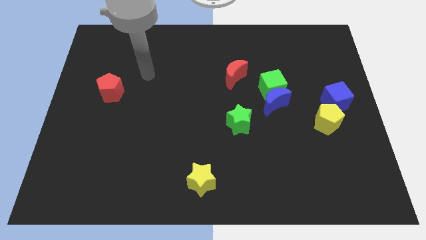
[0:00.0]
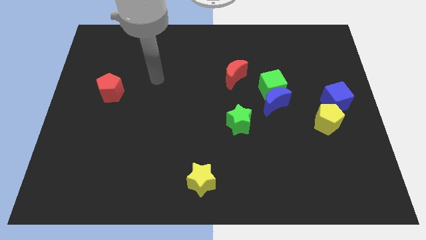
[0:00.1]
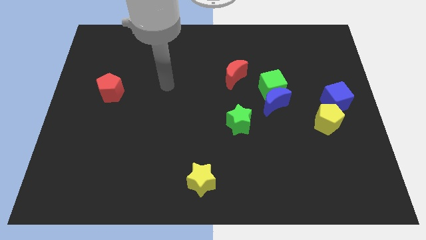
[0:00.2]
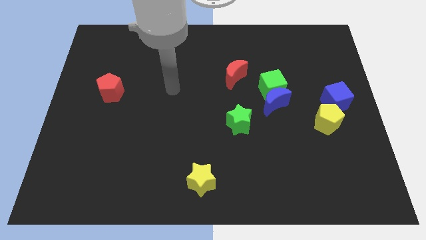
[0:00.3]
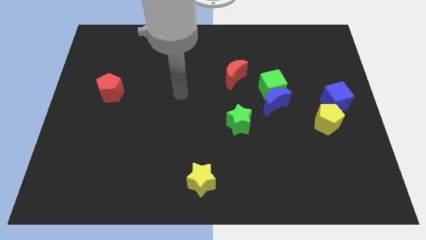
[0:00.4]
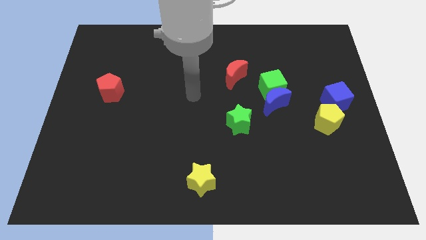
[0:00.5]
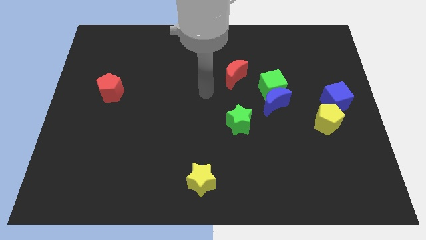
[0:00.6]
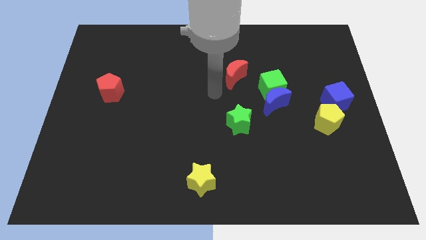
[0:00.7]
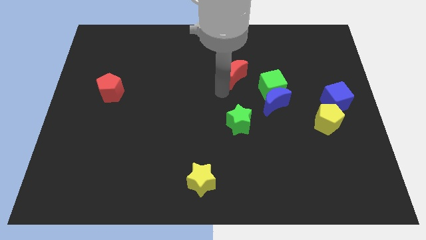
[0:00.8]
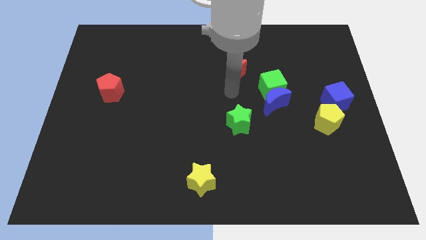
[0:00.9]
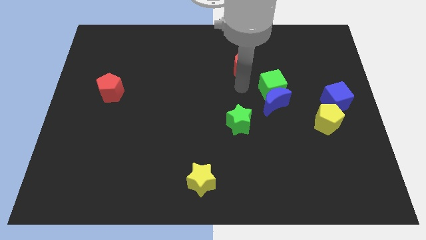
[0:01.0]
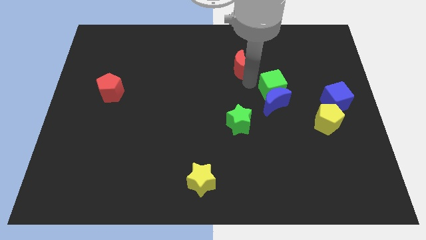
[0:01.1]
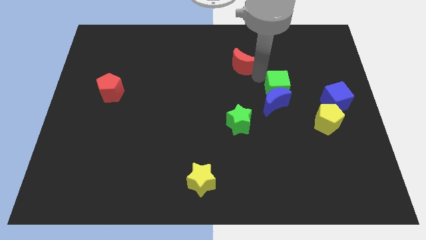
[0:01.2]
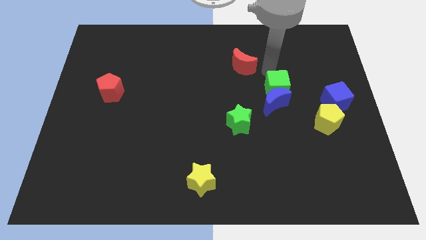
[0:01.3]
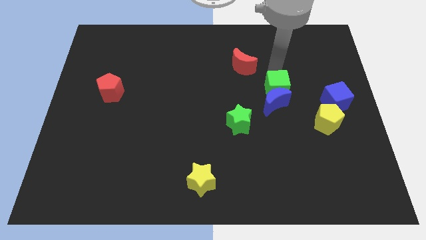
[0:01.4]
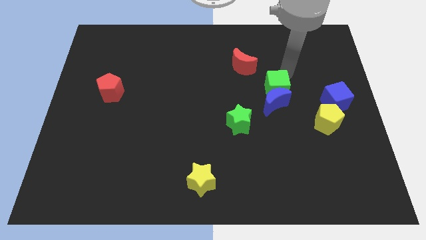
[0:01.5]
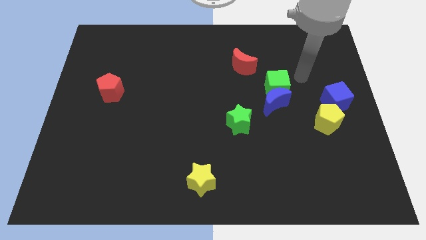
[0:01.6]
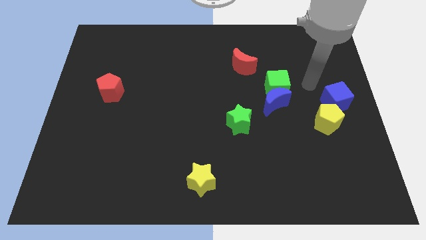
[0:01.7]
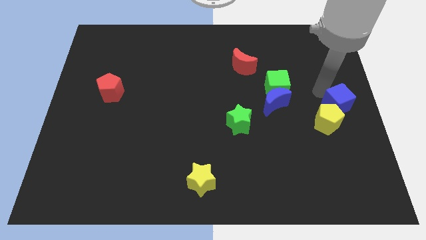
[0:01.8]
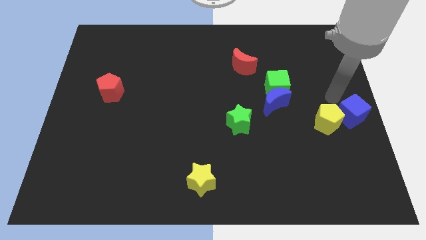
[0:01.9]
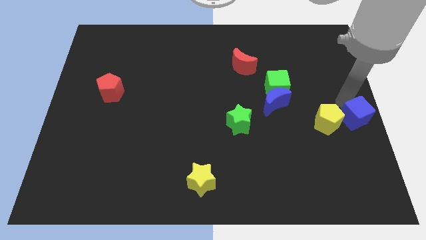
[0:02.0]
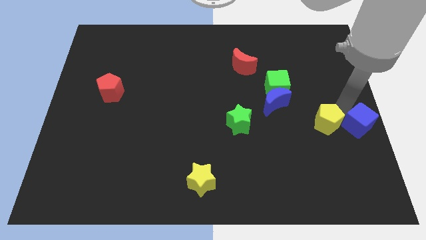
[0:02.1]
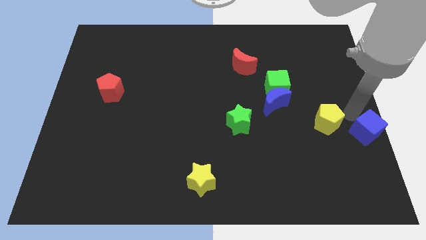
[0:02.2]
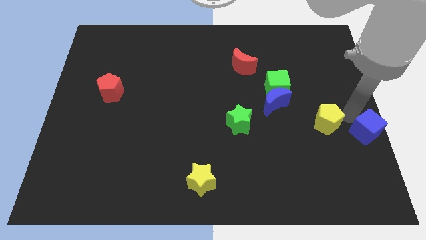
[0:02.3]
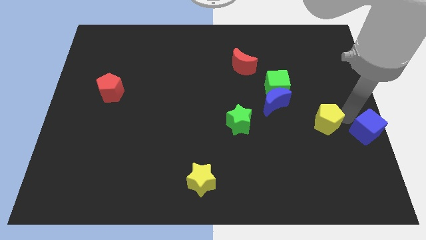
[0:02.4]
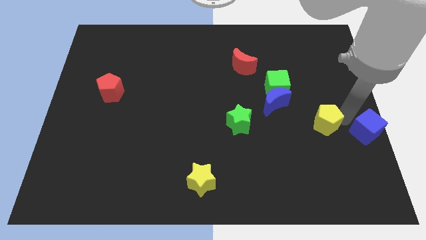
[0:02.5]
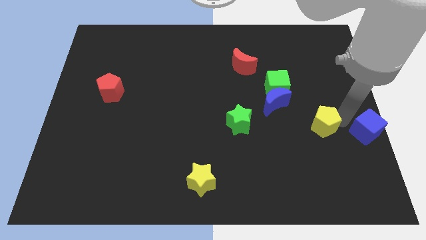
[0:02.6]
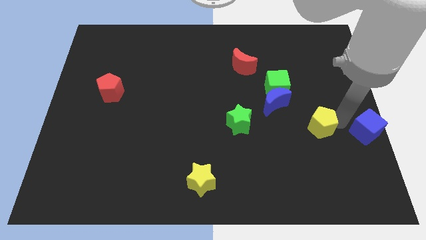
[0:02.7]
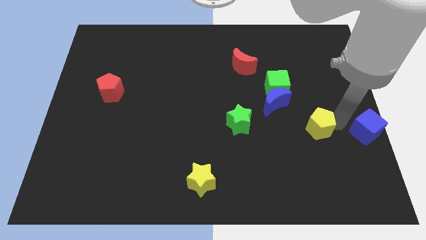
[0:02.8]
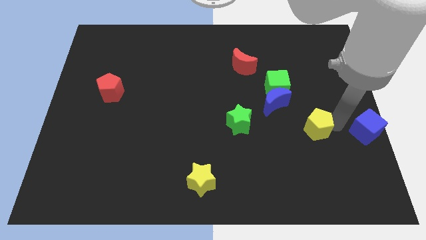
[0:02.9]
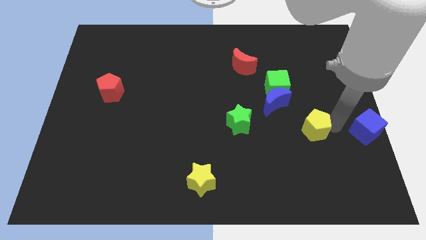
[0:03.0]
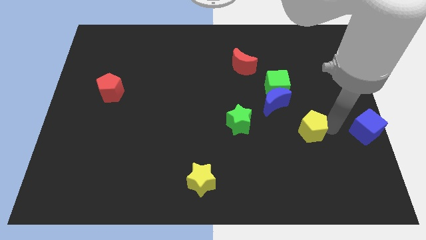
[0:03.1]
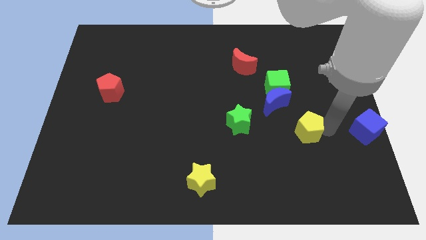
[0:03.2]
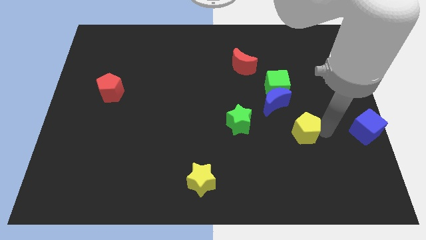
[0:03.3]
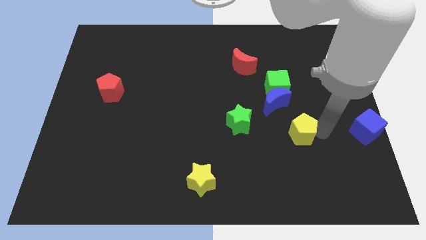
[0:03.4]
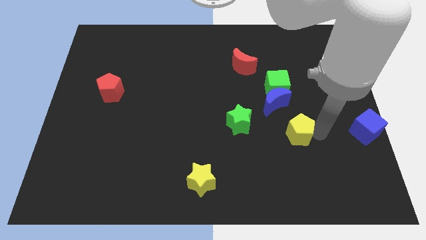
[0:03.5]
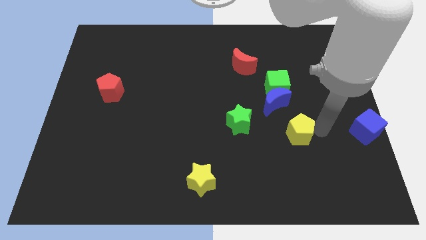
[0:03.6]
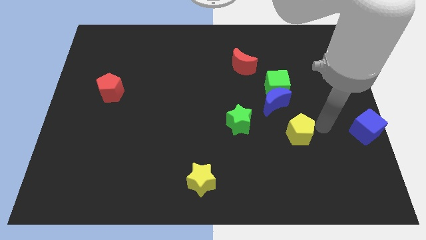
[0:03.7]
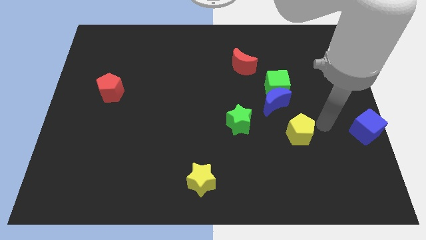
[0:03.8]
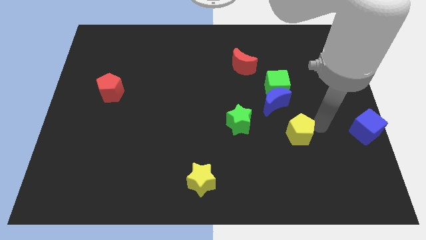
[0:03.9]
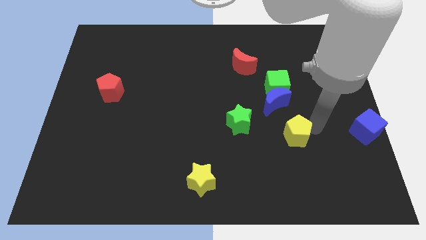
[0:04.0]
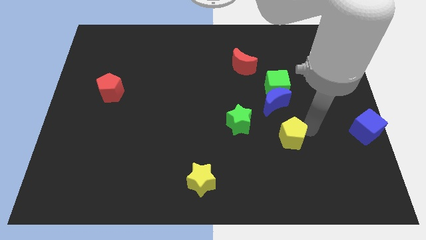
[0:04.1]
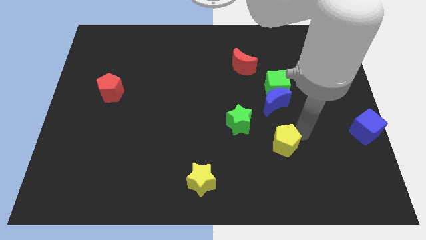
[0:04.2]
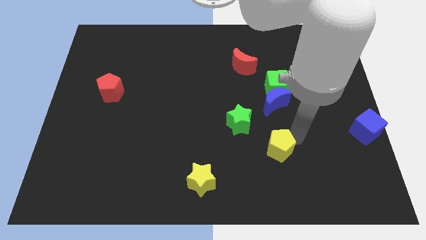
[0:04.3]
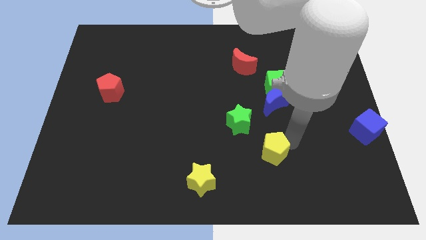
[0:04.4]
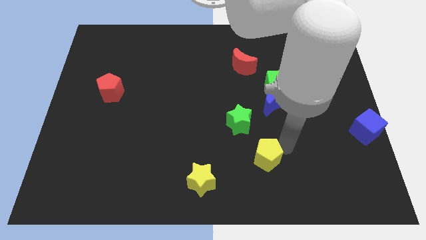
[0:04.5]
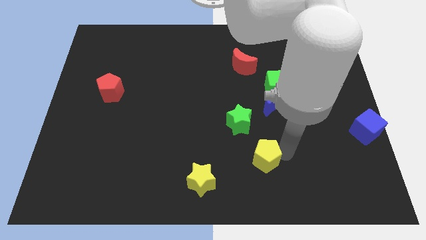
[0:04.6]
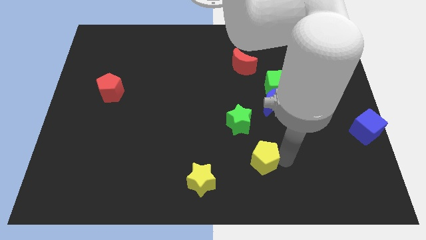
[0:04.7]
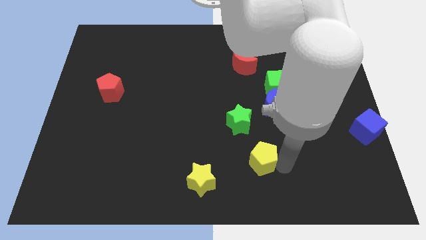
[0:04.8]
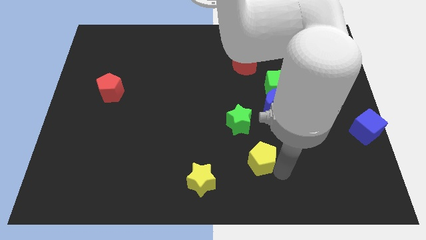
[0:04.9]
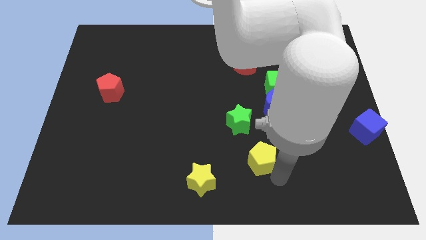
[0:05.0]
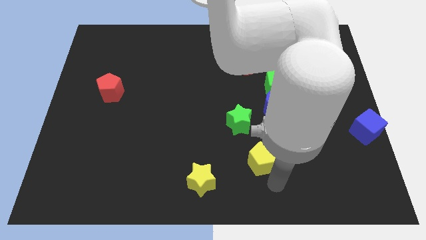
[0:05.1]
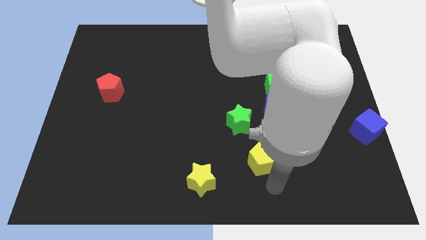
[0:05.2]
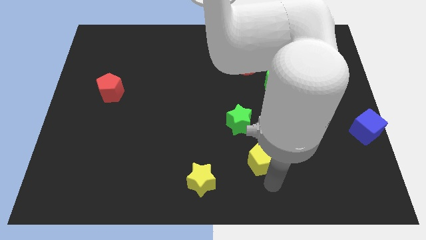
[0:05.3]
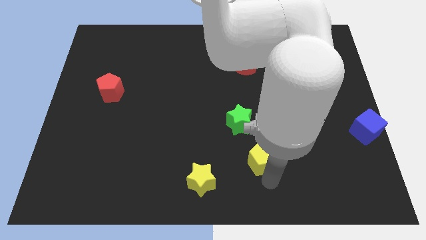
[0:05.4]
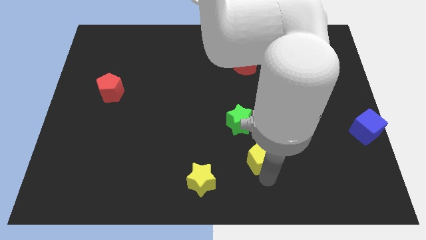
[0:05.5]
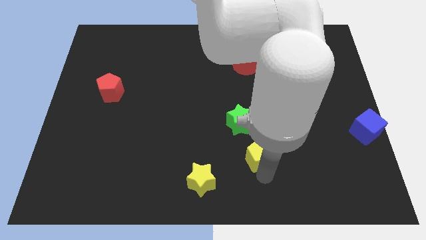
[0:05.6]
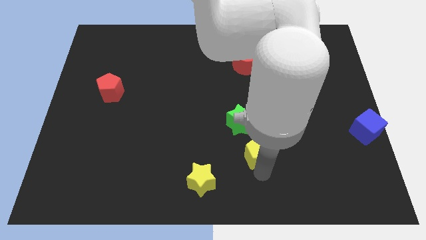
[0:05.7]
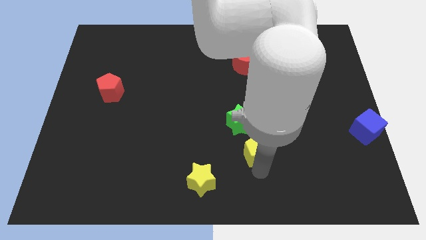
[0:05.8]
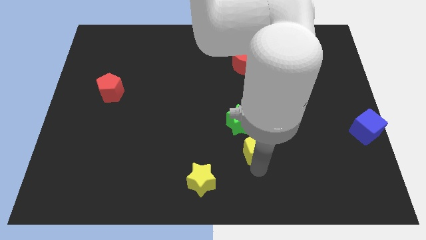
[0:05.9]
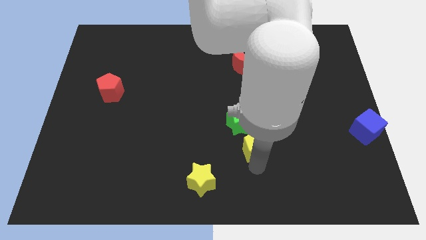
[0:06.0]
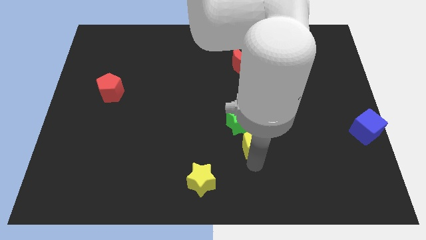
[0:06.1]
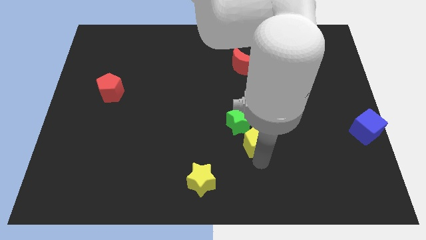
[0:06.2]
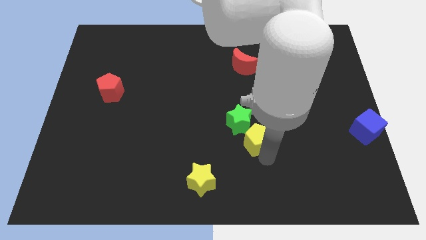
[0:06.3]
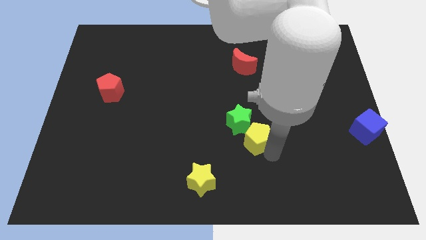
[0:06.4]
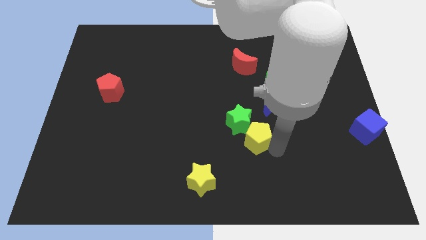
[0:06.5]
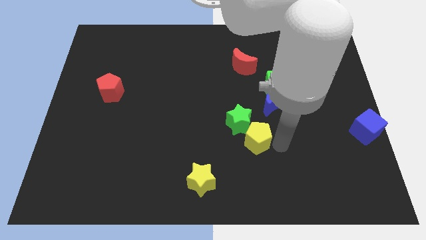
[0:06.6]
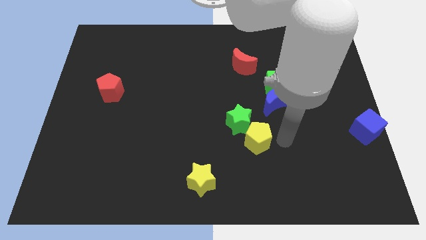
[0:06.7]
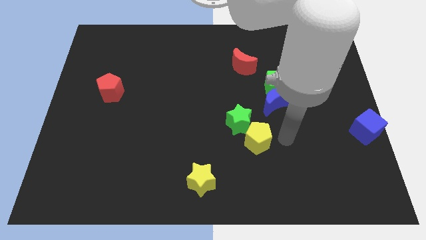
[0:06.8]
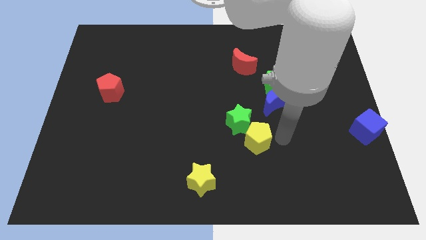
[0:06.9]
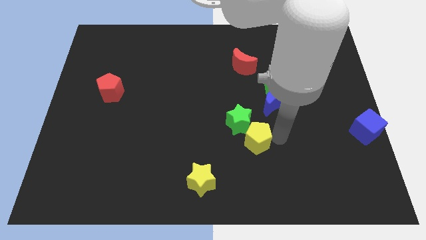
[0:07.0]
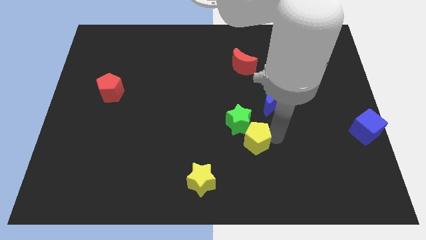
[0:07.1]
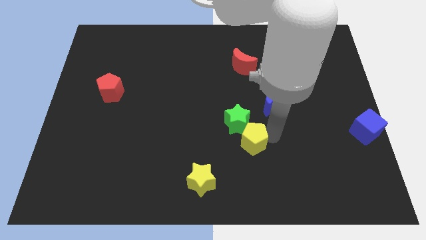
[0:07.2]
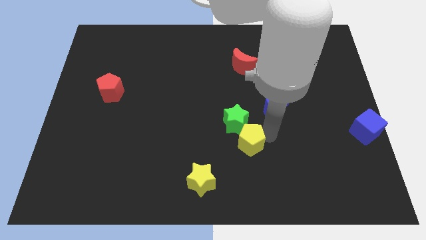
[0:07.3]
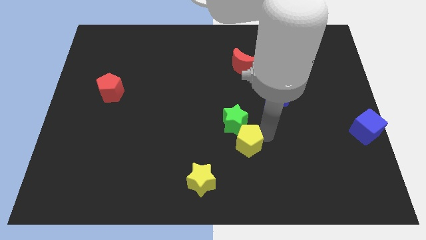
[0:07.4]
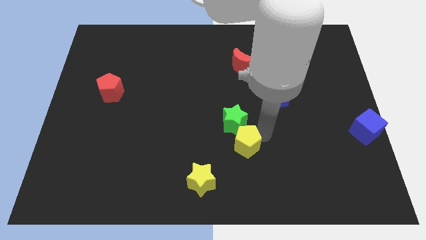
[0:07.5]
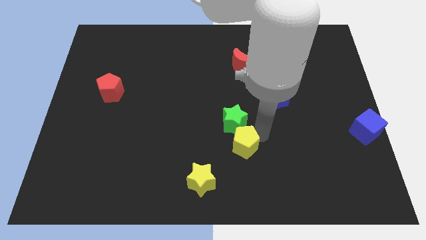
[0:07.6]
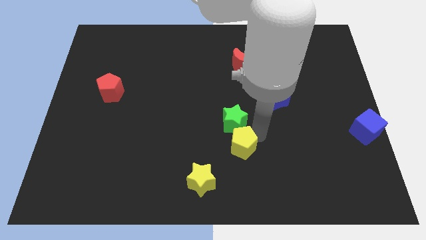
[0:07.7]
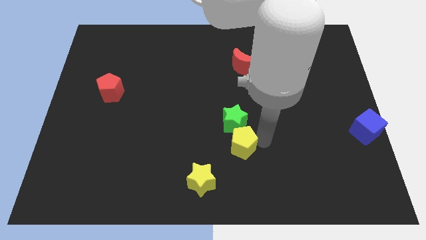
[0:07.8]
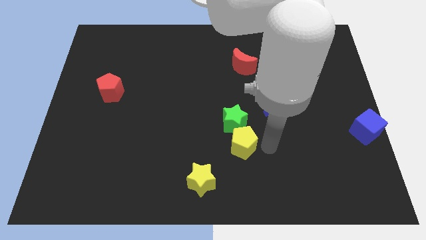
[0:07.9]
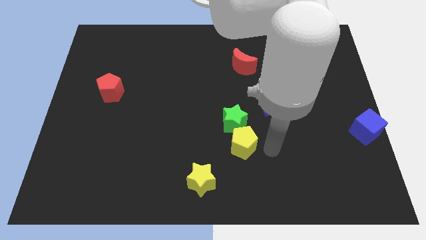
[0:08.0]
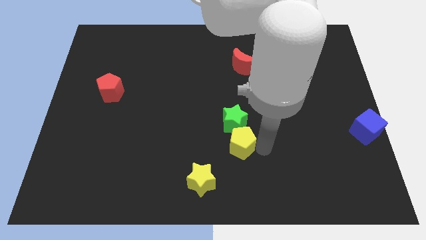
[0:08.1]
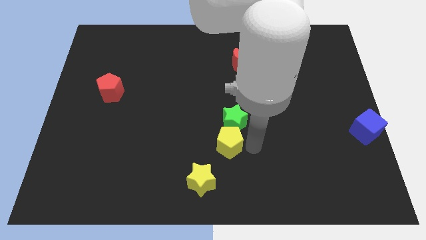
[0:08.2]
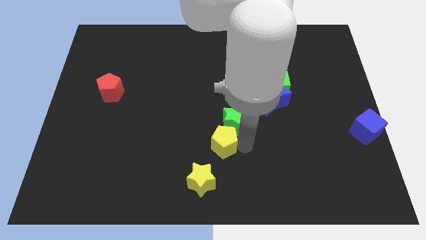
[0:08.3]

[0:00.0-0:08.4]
push the yellow pentagon above the yellow star
